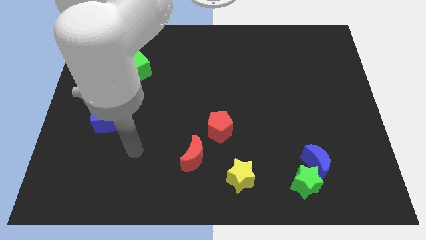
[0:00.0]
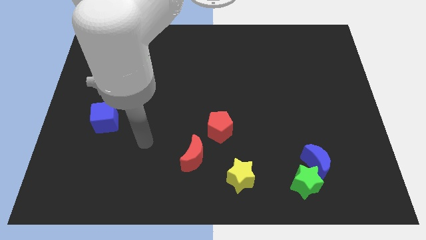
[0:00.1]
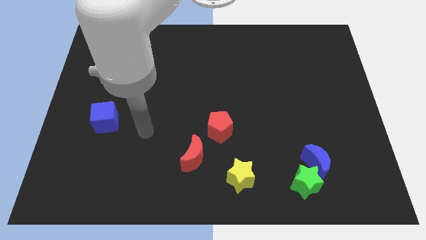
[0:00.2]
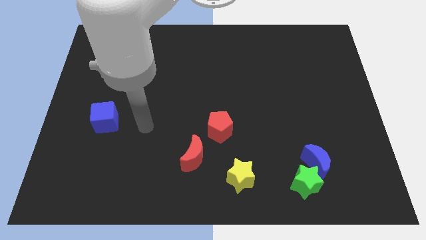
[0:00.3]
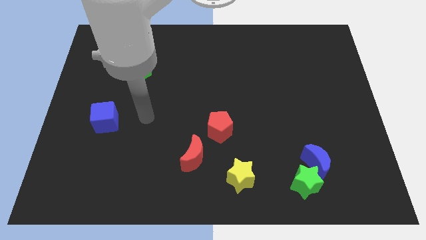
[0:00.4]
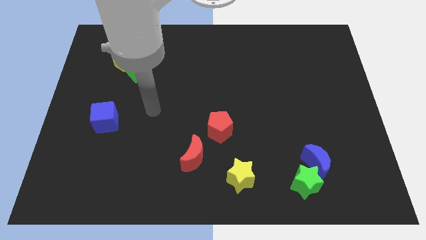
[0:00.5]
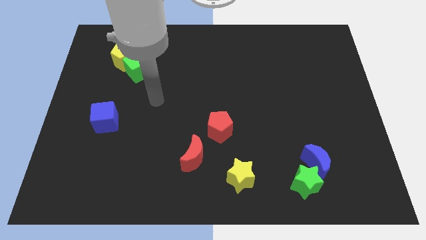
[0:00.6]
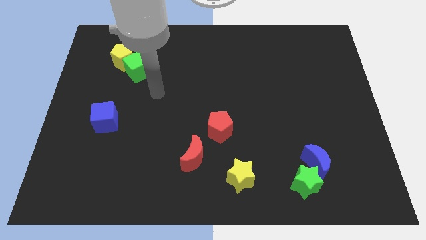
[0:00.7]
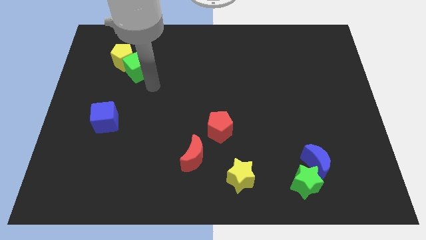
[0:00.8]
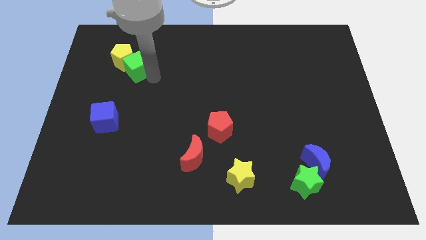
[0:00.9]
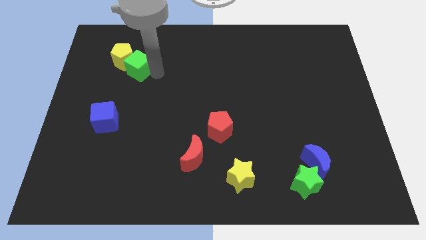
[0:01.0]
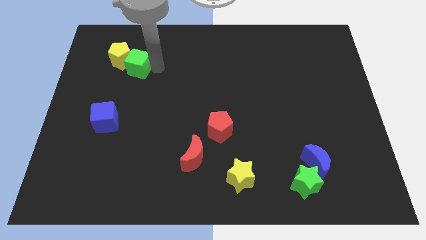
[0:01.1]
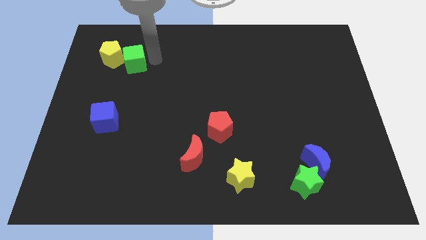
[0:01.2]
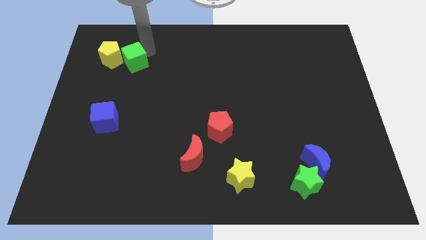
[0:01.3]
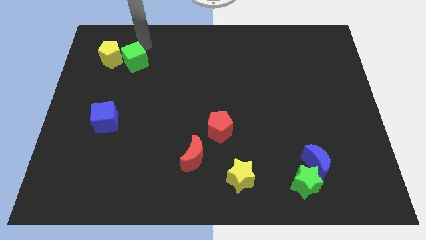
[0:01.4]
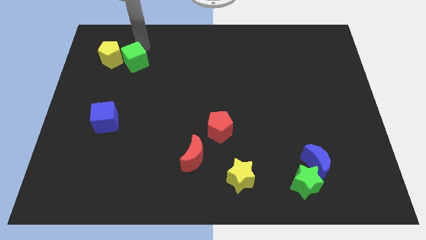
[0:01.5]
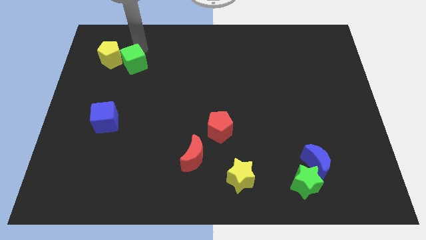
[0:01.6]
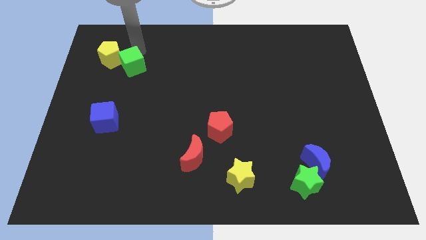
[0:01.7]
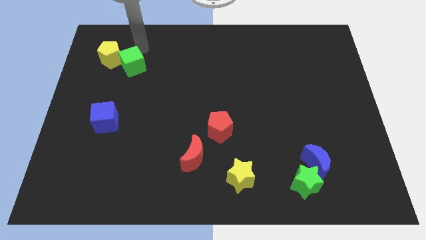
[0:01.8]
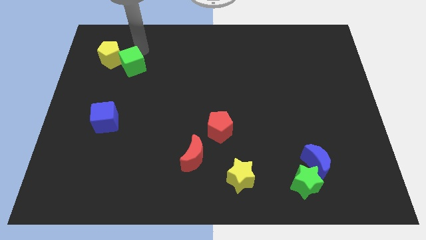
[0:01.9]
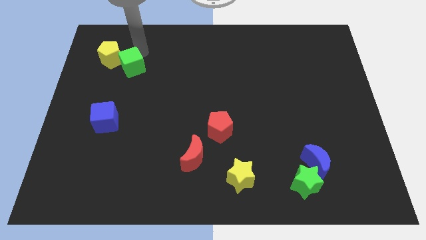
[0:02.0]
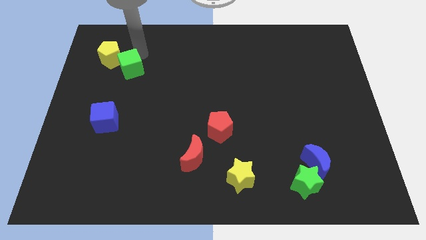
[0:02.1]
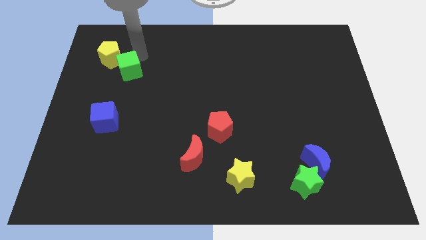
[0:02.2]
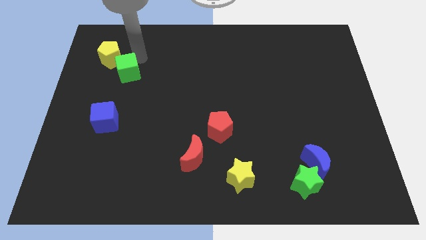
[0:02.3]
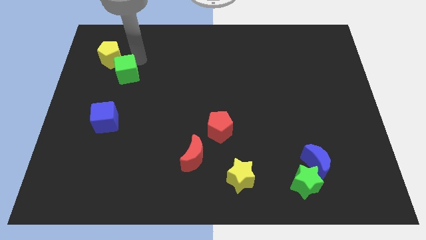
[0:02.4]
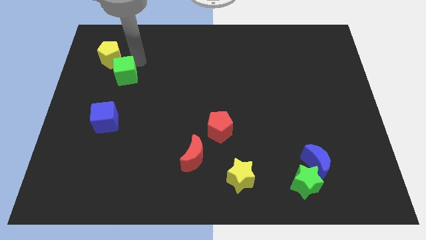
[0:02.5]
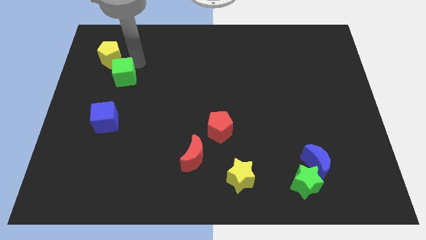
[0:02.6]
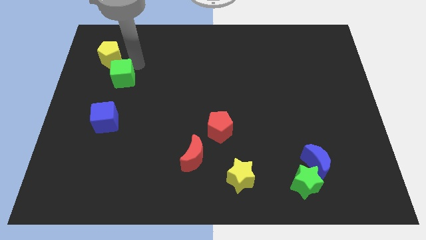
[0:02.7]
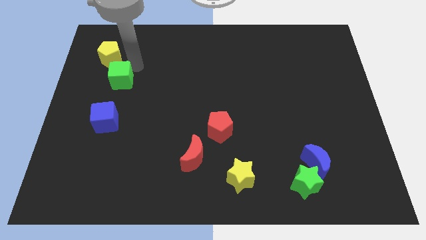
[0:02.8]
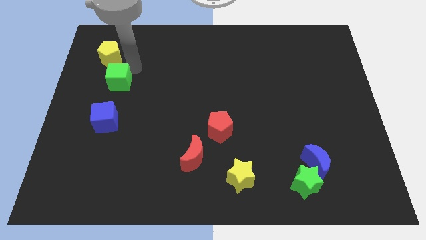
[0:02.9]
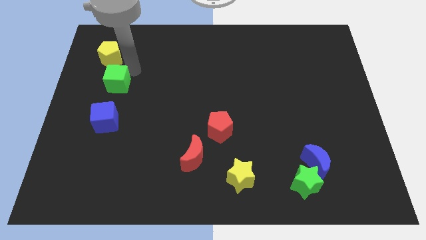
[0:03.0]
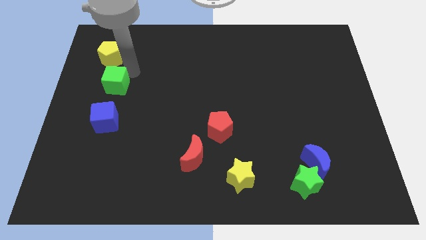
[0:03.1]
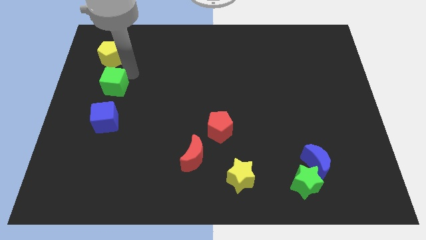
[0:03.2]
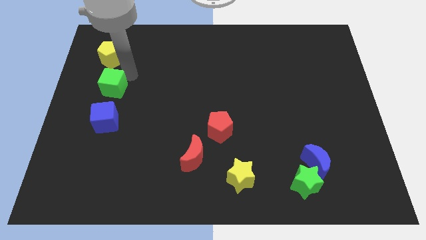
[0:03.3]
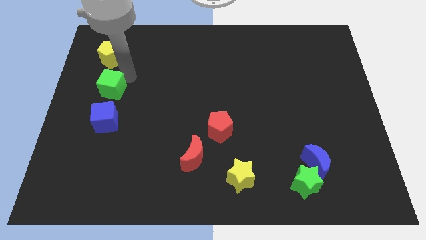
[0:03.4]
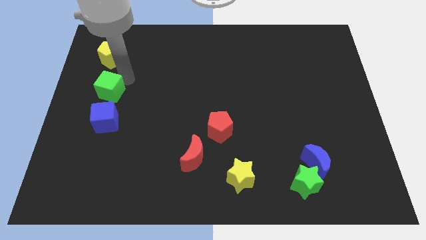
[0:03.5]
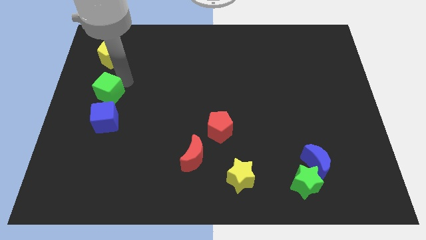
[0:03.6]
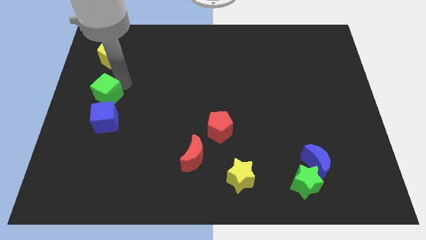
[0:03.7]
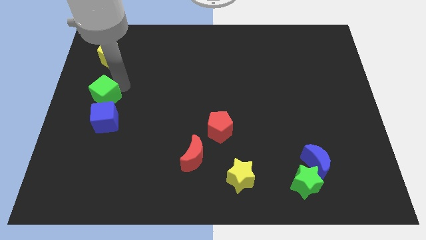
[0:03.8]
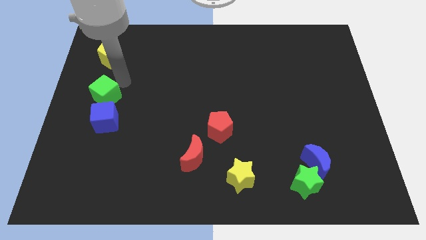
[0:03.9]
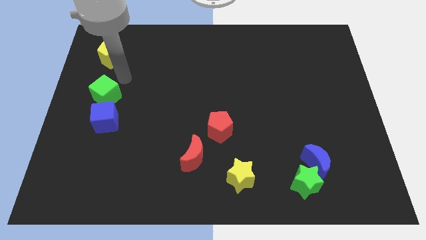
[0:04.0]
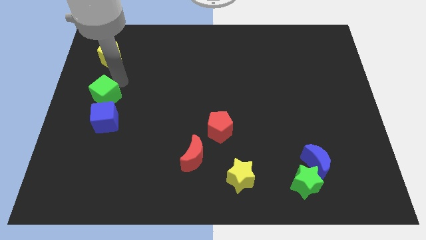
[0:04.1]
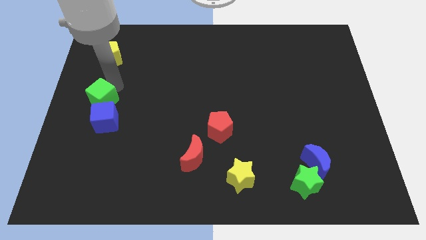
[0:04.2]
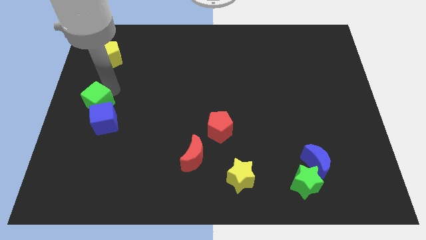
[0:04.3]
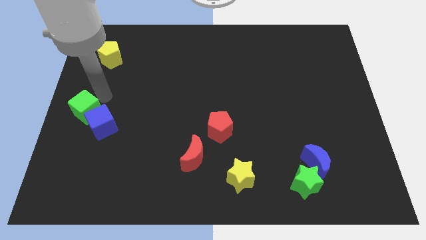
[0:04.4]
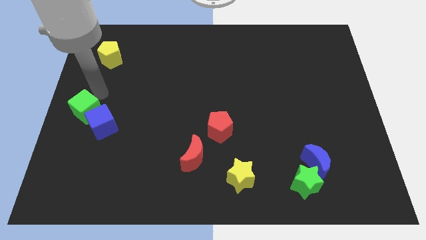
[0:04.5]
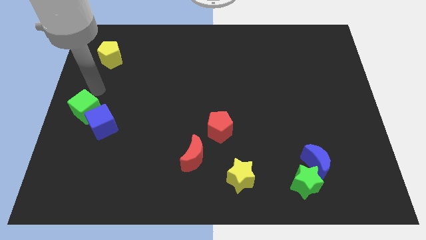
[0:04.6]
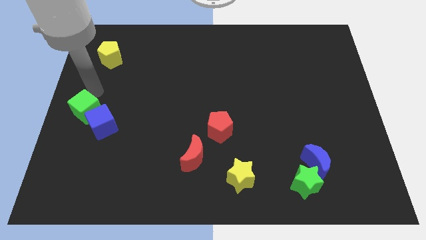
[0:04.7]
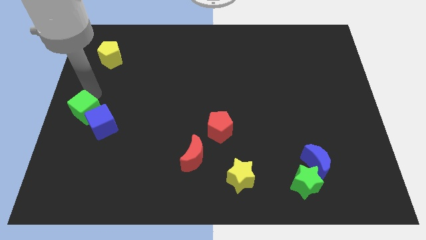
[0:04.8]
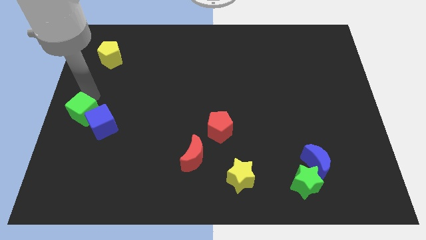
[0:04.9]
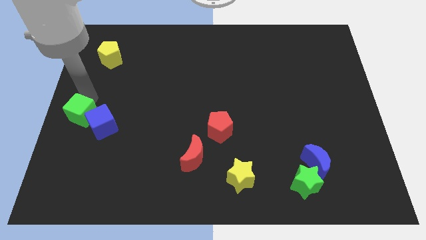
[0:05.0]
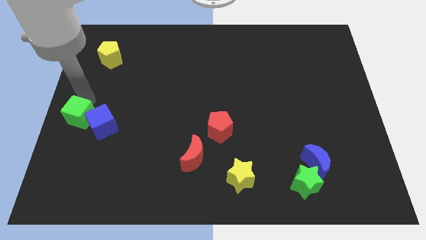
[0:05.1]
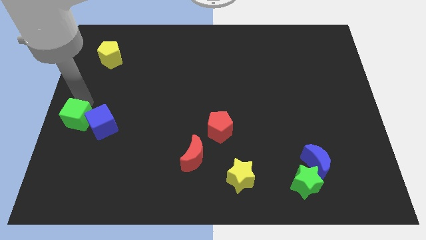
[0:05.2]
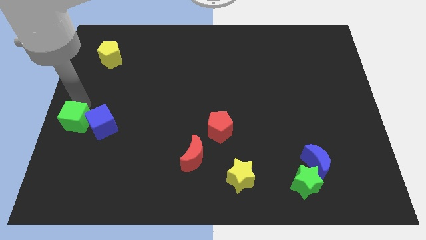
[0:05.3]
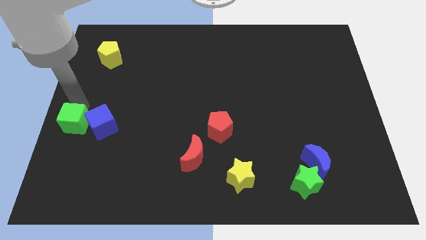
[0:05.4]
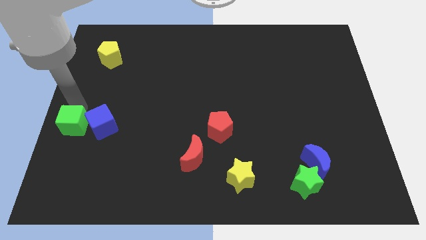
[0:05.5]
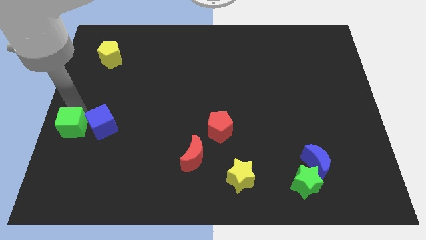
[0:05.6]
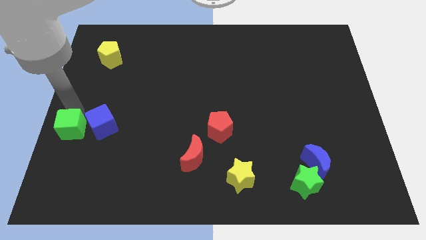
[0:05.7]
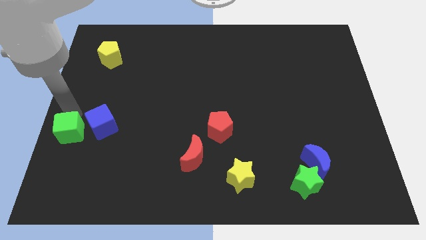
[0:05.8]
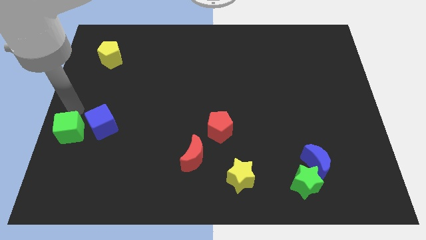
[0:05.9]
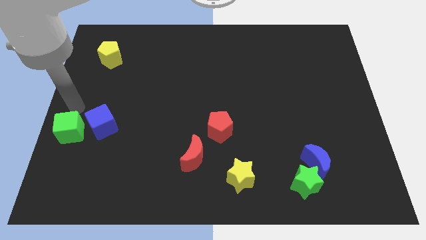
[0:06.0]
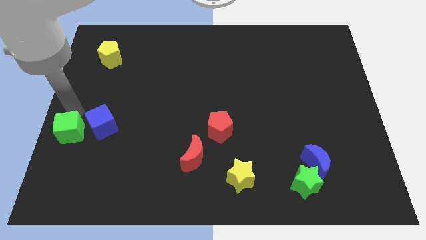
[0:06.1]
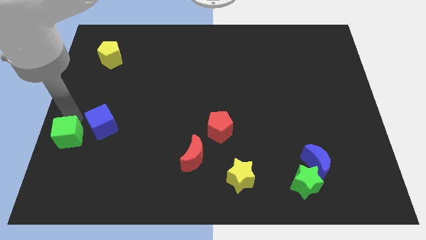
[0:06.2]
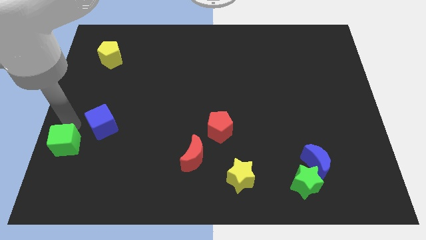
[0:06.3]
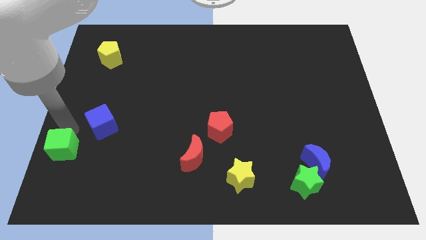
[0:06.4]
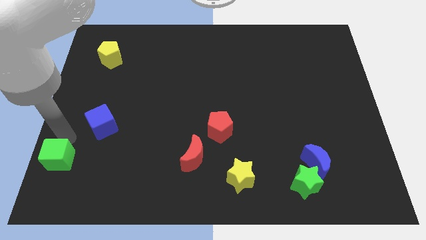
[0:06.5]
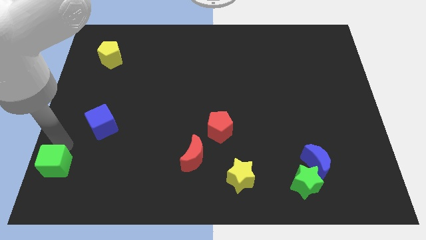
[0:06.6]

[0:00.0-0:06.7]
push the green cube to the bottom left of the board
